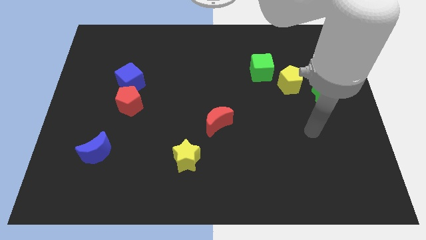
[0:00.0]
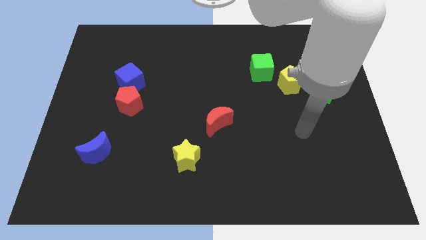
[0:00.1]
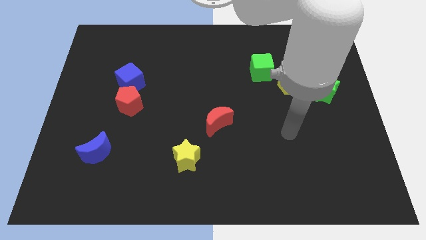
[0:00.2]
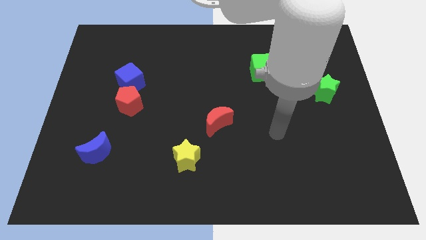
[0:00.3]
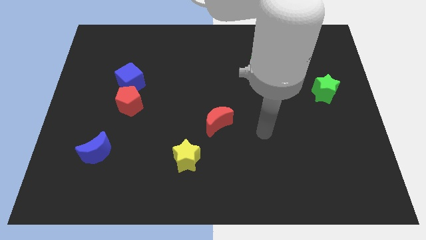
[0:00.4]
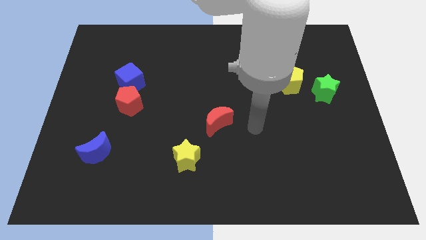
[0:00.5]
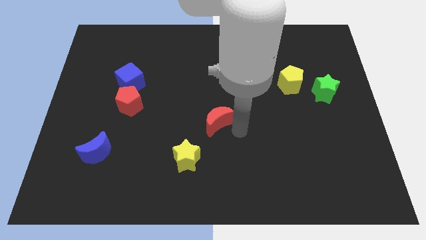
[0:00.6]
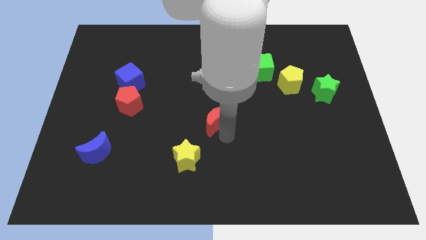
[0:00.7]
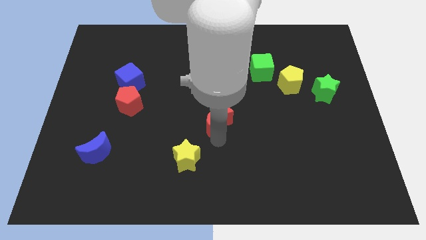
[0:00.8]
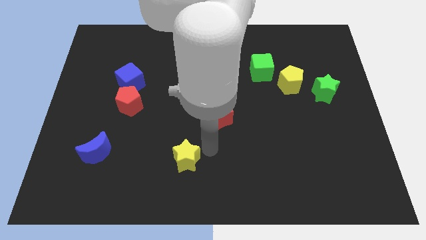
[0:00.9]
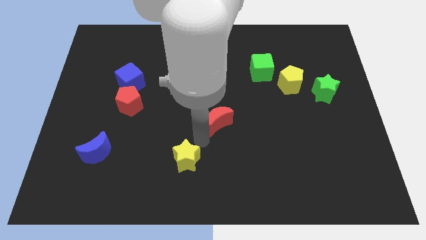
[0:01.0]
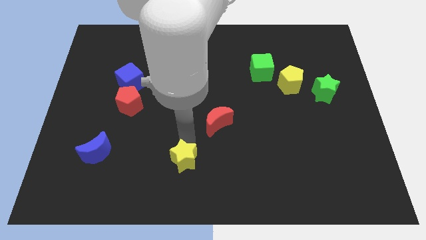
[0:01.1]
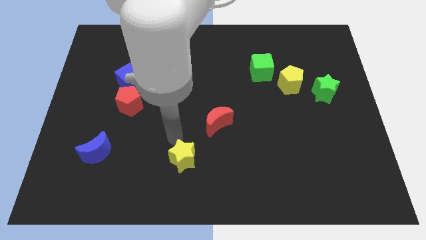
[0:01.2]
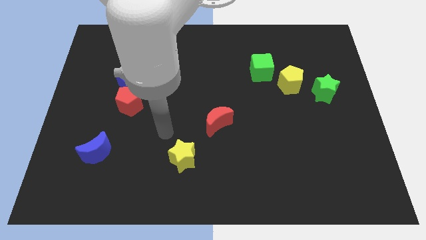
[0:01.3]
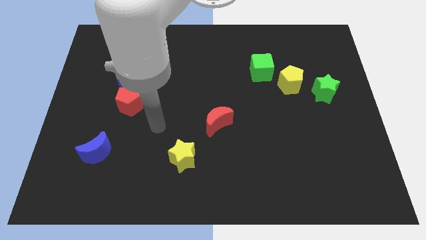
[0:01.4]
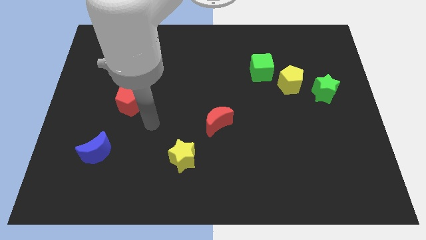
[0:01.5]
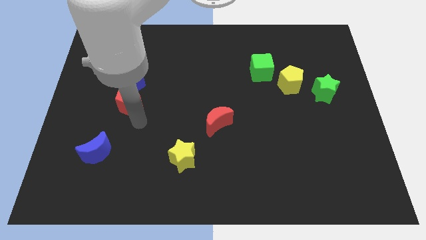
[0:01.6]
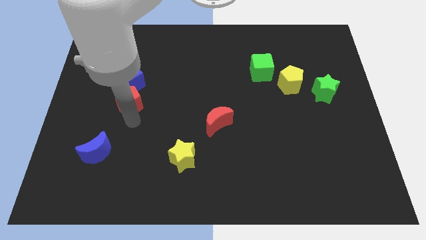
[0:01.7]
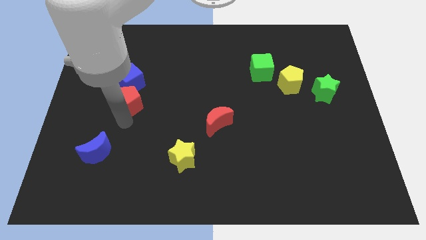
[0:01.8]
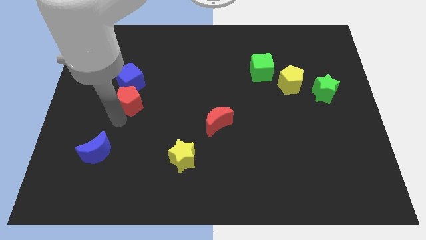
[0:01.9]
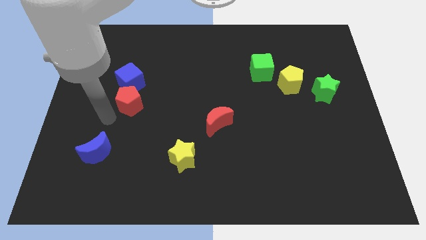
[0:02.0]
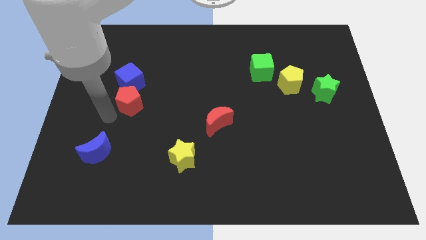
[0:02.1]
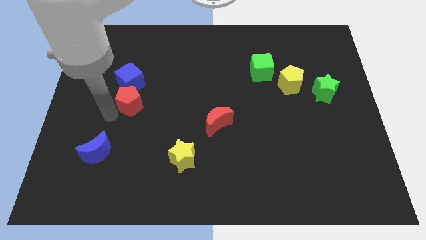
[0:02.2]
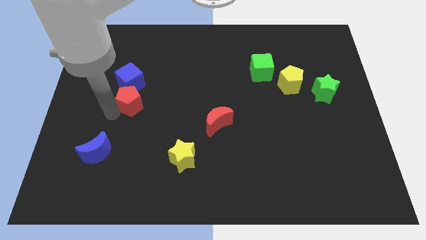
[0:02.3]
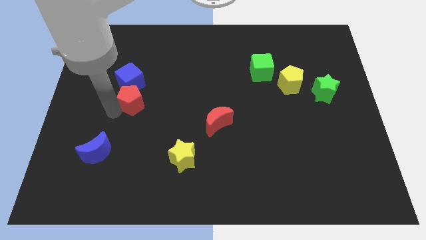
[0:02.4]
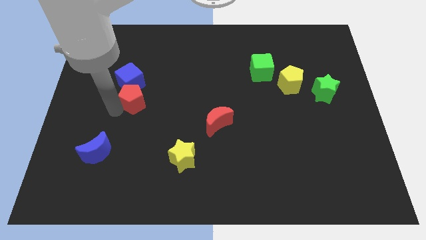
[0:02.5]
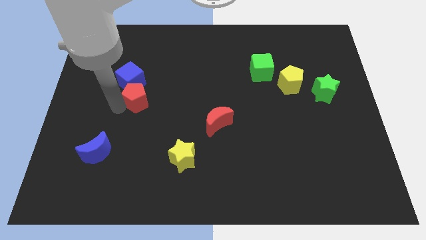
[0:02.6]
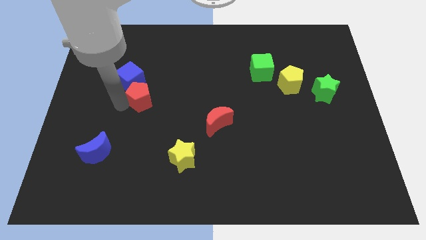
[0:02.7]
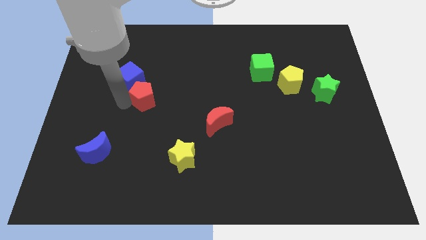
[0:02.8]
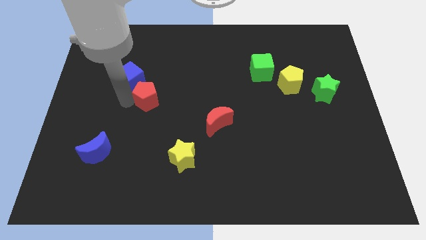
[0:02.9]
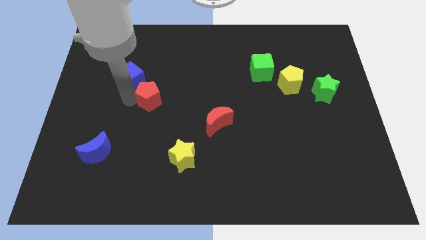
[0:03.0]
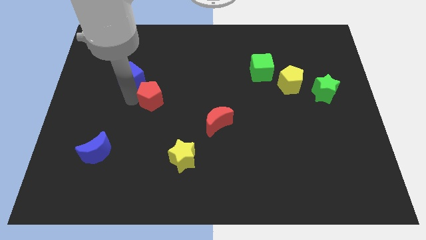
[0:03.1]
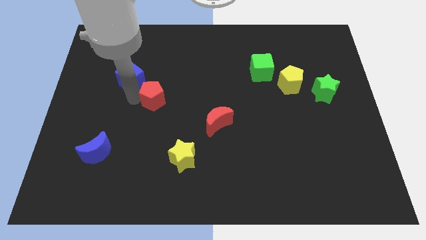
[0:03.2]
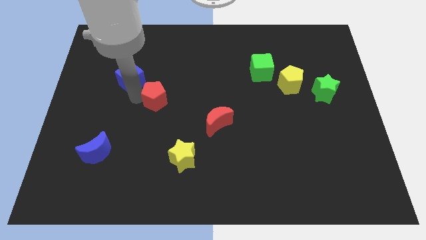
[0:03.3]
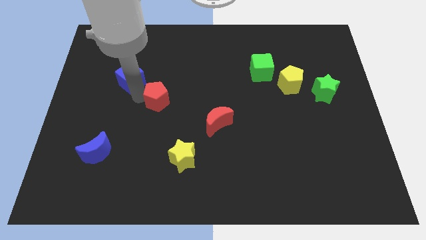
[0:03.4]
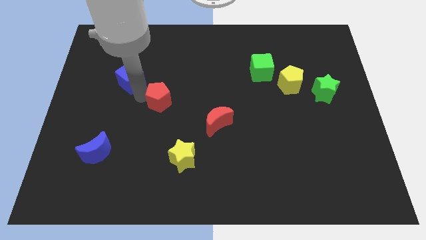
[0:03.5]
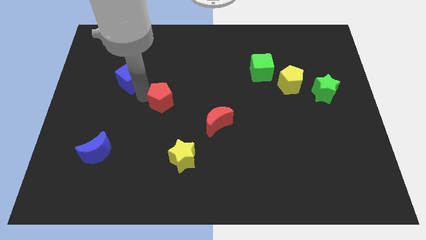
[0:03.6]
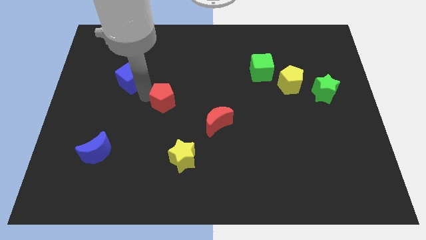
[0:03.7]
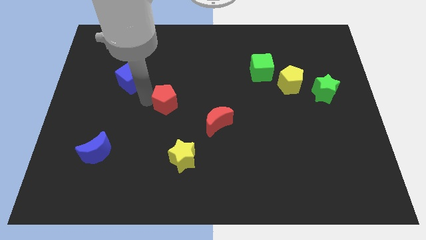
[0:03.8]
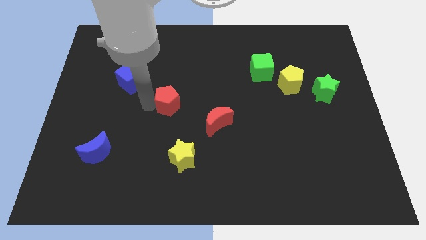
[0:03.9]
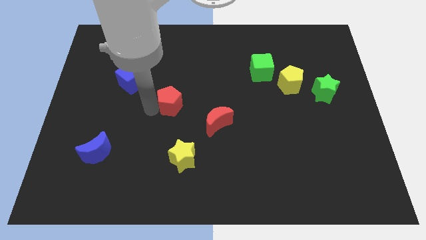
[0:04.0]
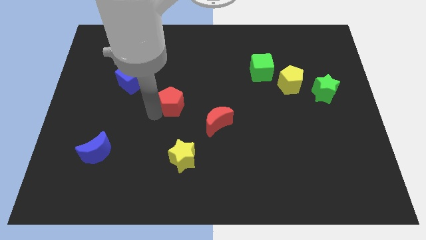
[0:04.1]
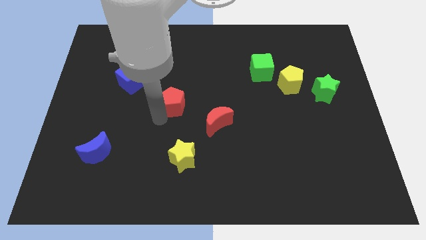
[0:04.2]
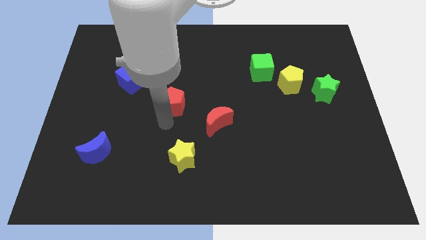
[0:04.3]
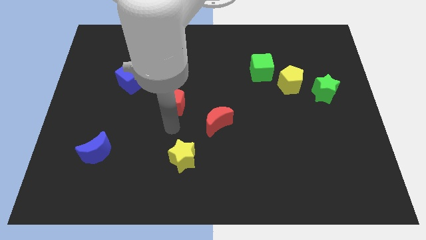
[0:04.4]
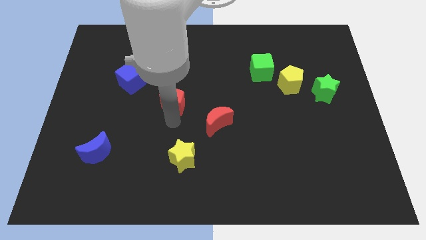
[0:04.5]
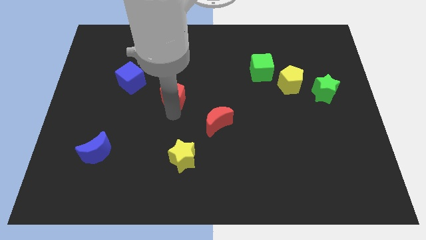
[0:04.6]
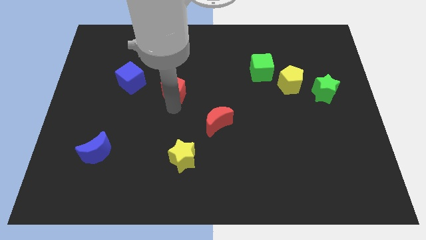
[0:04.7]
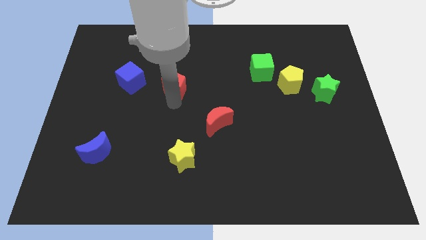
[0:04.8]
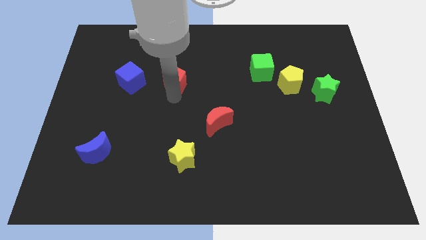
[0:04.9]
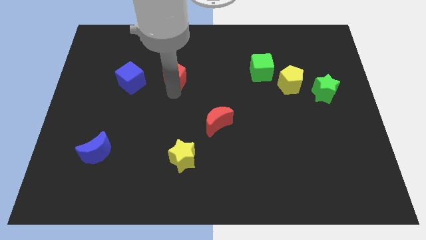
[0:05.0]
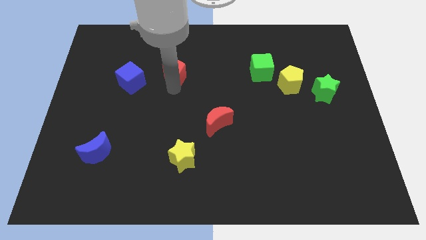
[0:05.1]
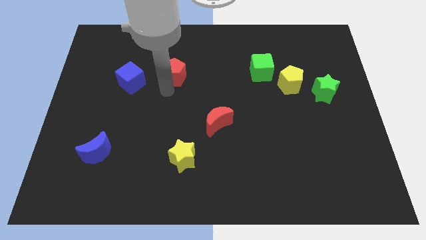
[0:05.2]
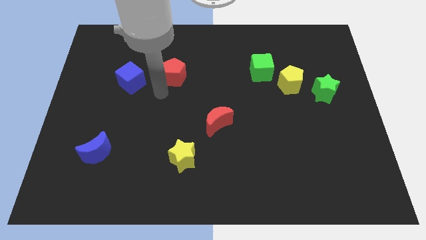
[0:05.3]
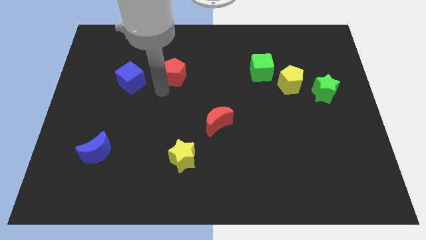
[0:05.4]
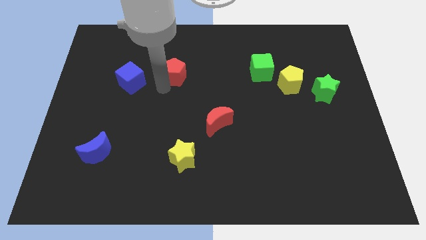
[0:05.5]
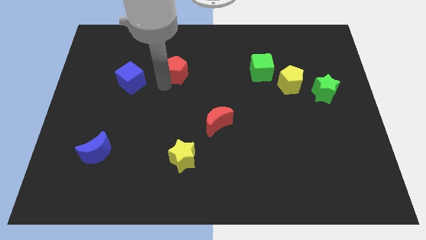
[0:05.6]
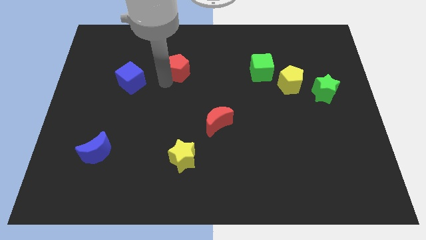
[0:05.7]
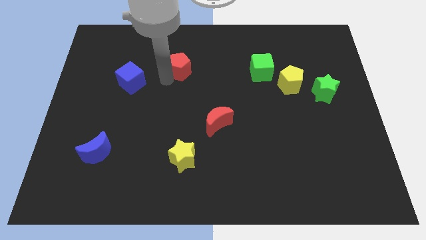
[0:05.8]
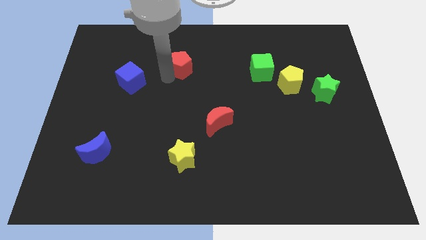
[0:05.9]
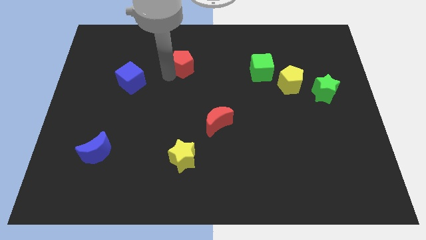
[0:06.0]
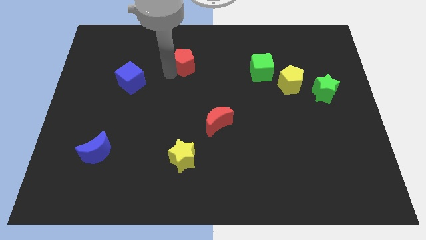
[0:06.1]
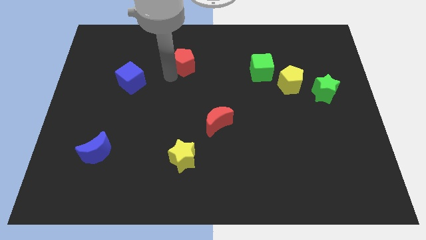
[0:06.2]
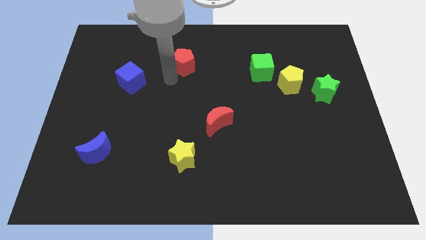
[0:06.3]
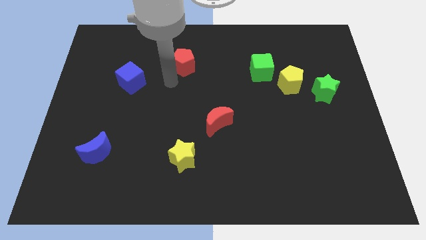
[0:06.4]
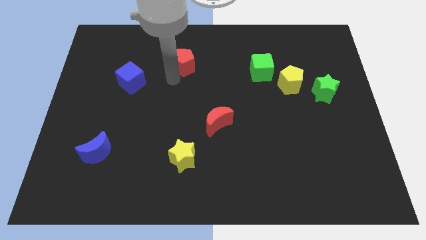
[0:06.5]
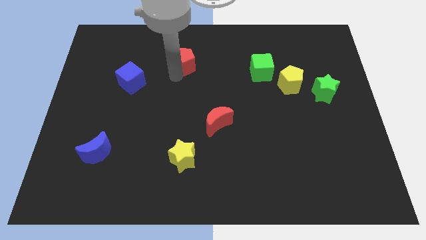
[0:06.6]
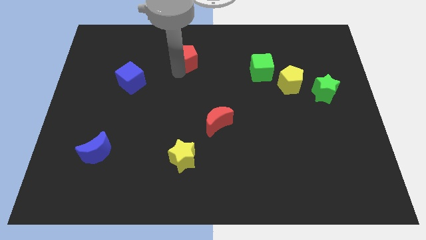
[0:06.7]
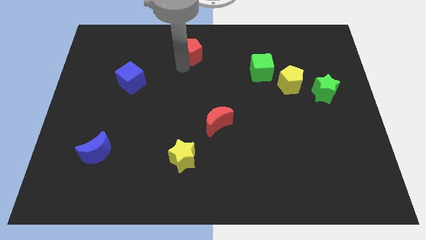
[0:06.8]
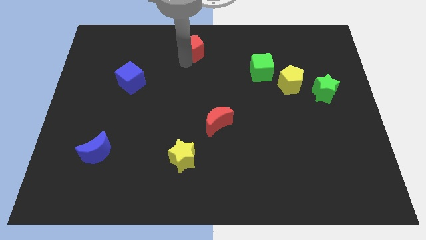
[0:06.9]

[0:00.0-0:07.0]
slide the red pentagon to the top side
